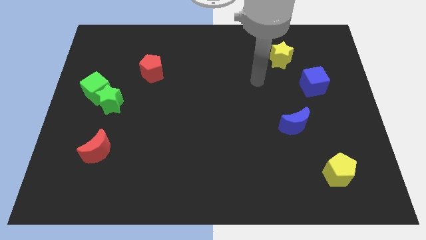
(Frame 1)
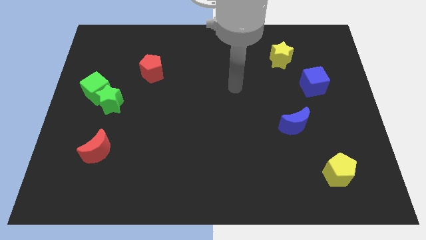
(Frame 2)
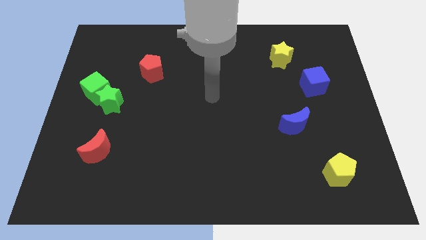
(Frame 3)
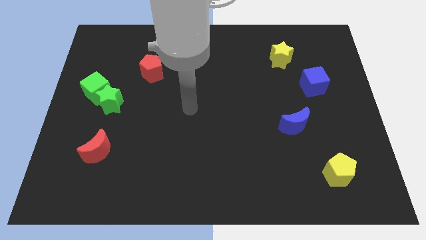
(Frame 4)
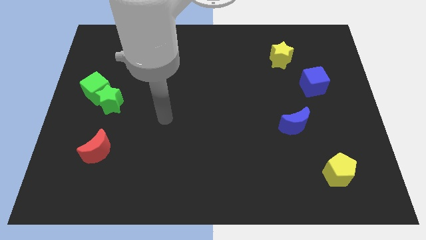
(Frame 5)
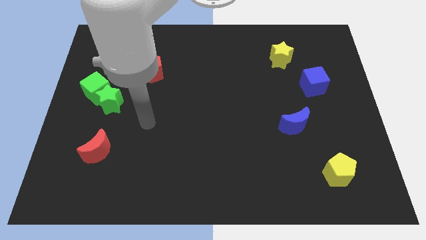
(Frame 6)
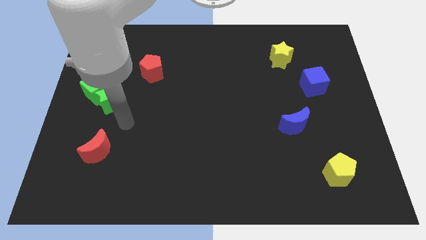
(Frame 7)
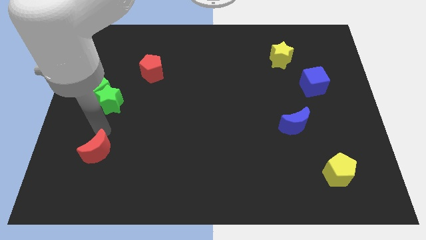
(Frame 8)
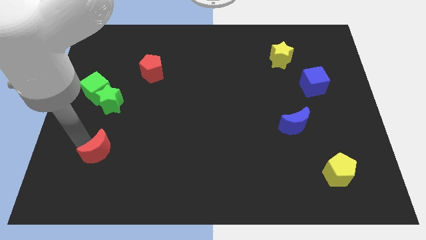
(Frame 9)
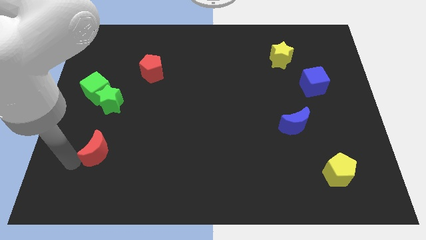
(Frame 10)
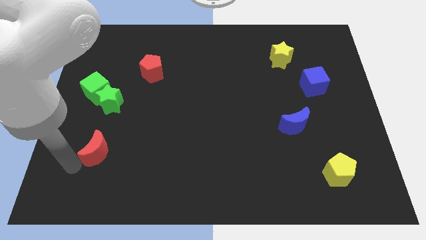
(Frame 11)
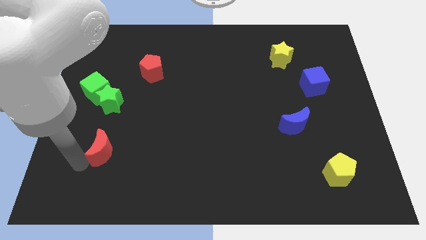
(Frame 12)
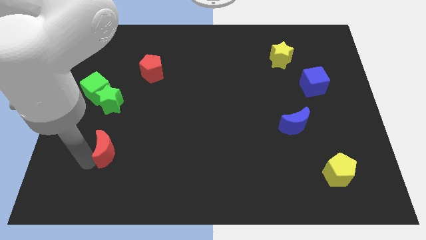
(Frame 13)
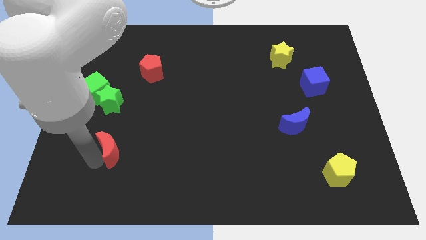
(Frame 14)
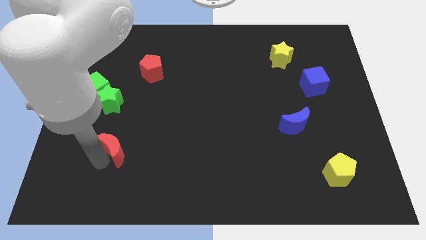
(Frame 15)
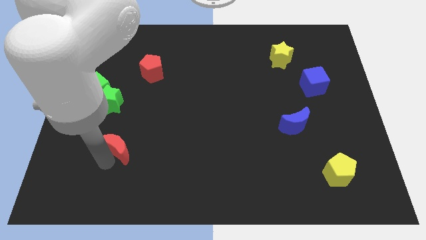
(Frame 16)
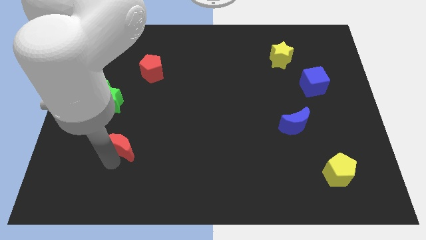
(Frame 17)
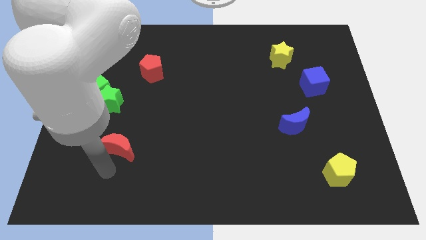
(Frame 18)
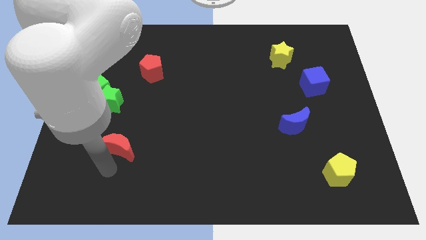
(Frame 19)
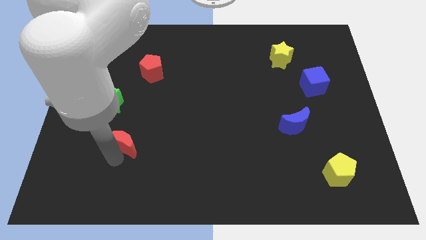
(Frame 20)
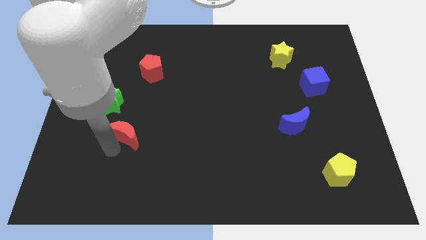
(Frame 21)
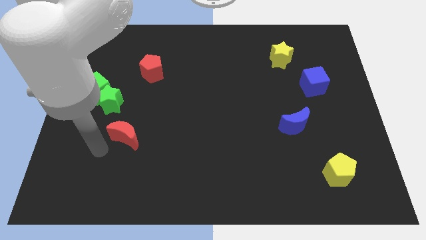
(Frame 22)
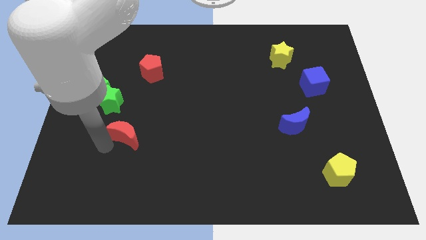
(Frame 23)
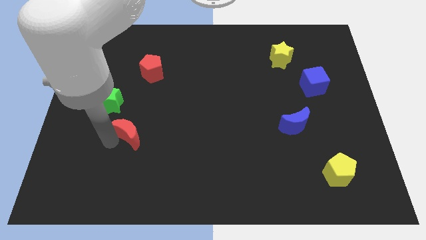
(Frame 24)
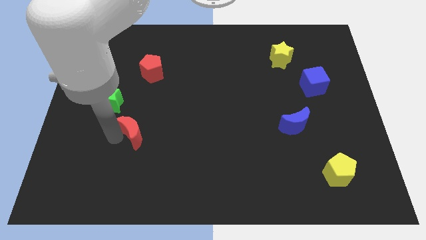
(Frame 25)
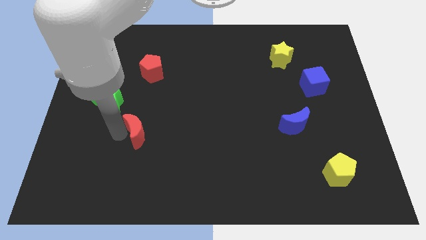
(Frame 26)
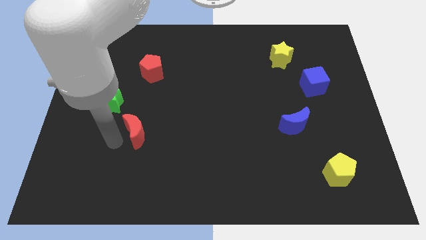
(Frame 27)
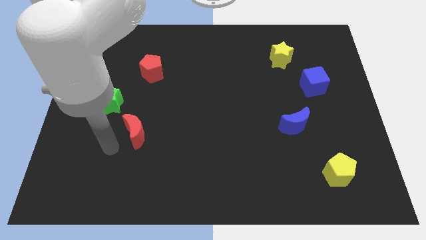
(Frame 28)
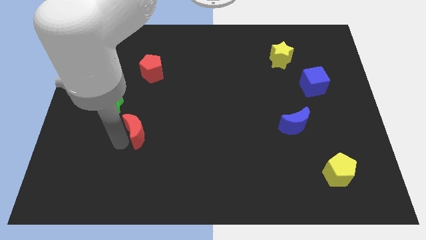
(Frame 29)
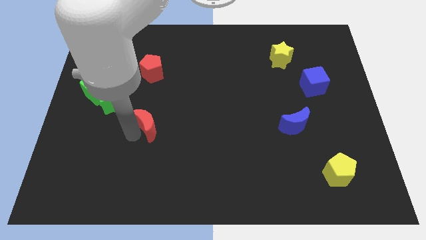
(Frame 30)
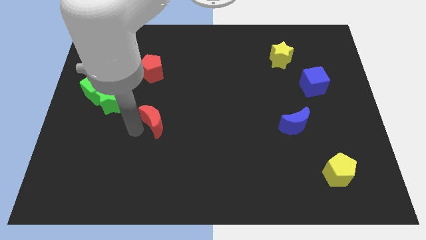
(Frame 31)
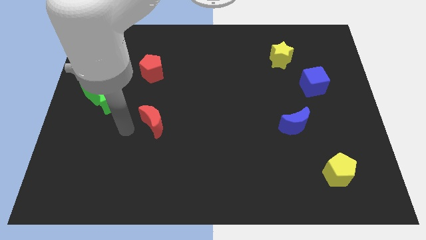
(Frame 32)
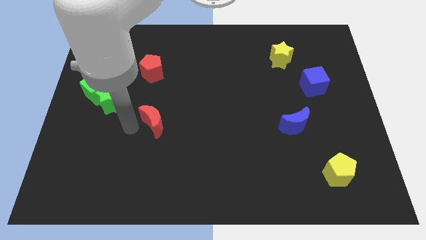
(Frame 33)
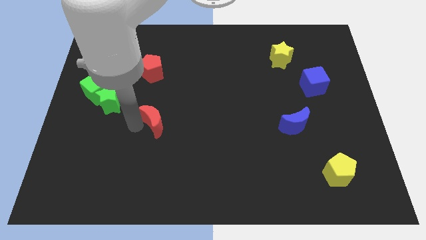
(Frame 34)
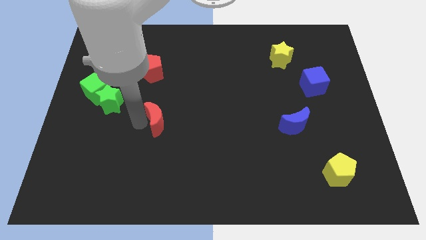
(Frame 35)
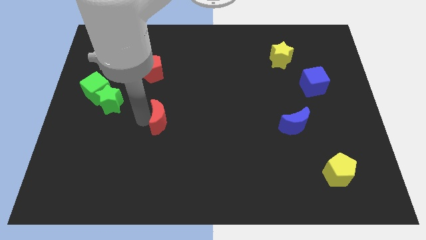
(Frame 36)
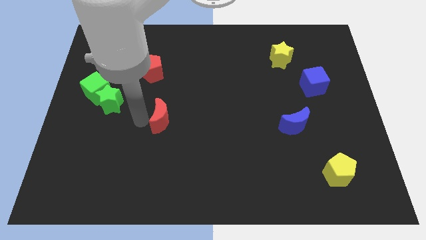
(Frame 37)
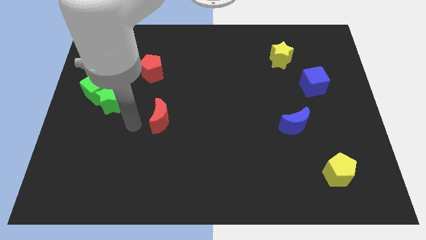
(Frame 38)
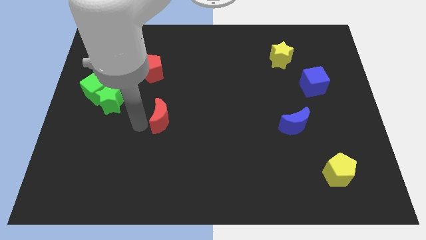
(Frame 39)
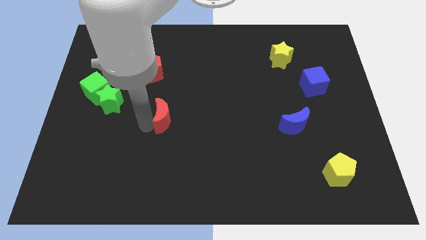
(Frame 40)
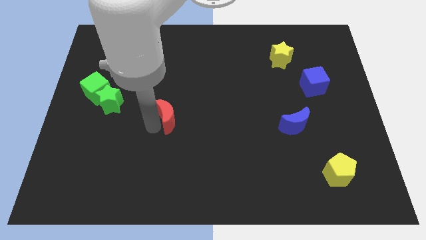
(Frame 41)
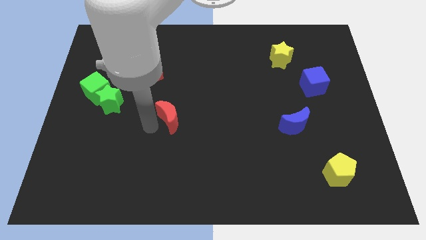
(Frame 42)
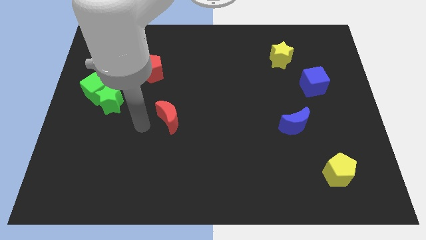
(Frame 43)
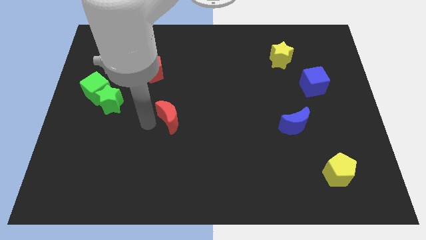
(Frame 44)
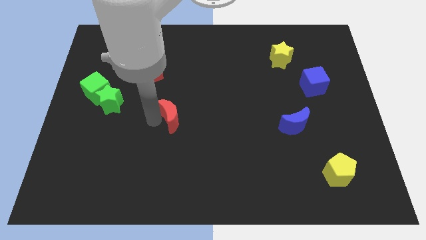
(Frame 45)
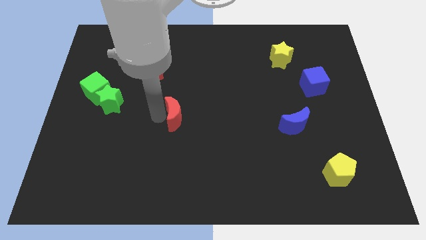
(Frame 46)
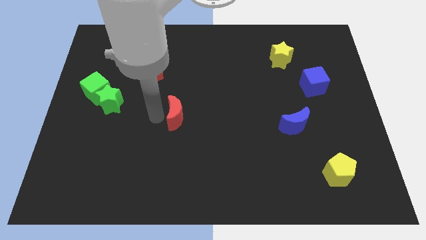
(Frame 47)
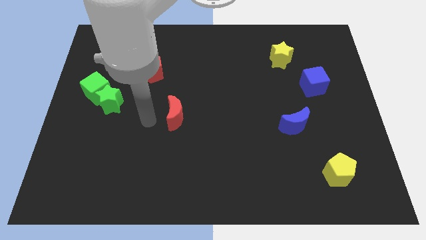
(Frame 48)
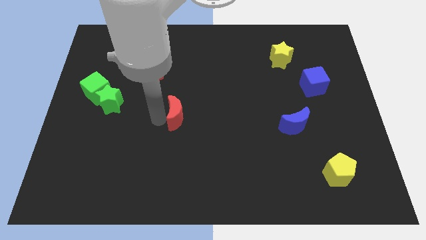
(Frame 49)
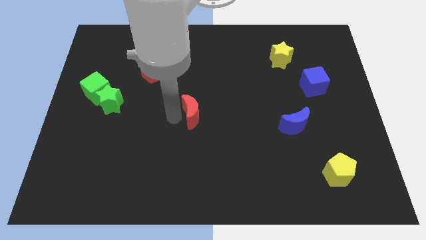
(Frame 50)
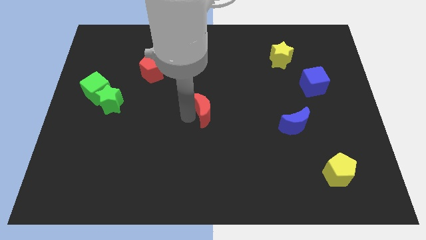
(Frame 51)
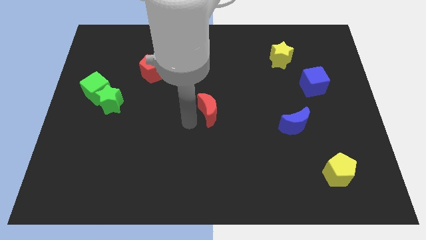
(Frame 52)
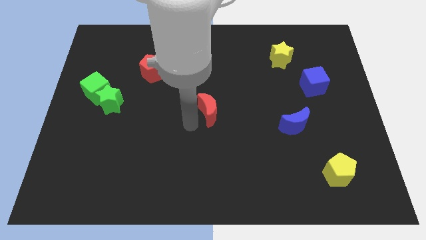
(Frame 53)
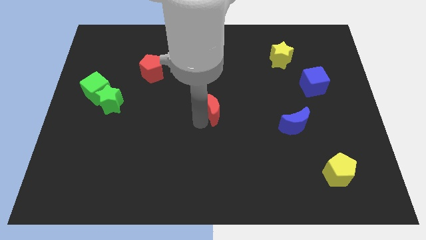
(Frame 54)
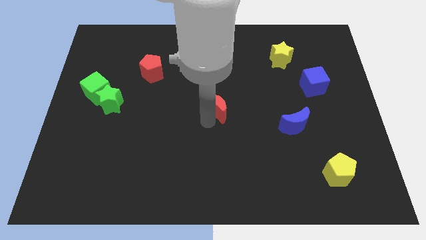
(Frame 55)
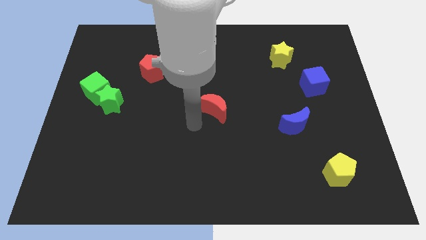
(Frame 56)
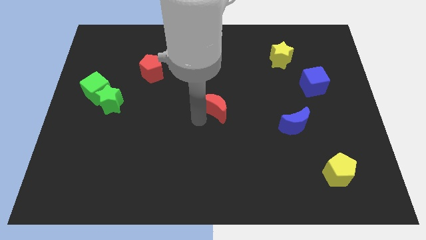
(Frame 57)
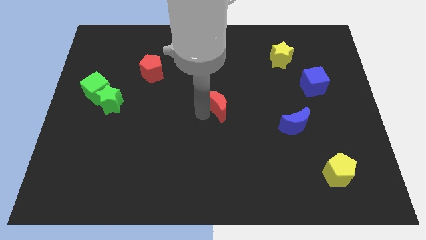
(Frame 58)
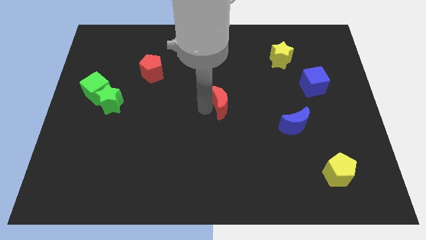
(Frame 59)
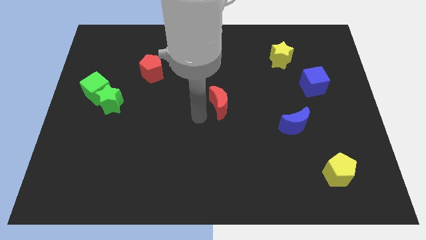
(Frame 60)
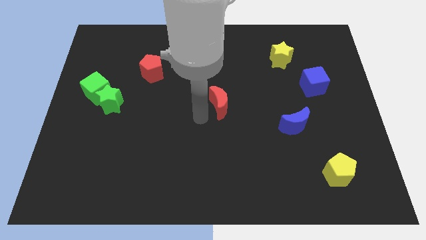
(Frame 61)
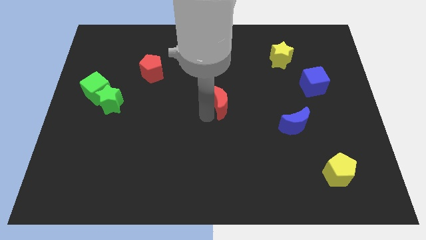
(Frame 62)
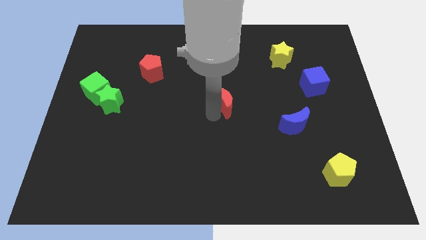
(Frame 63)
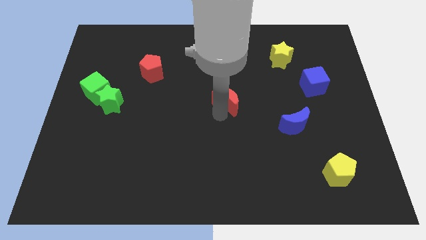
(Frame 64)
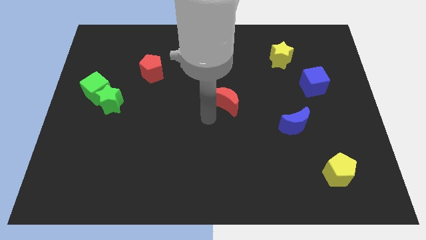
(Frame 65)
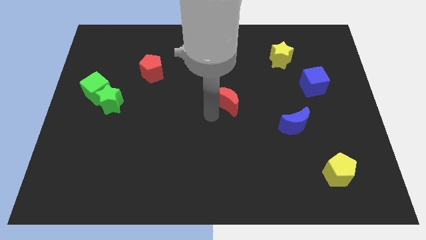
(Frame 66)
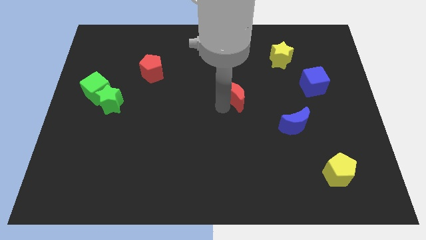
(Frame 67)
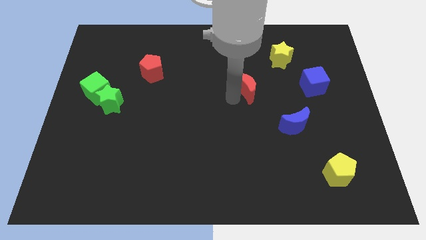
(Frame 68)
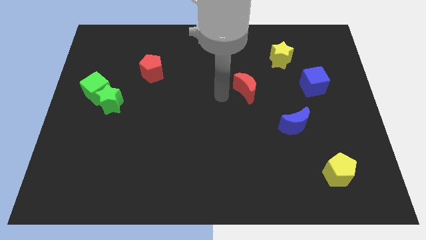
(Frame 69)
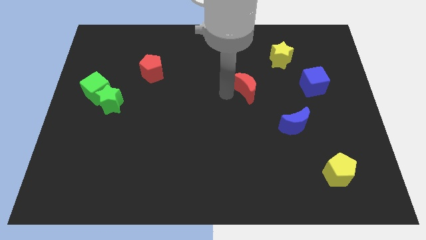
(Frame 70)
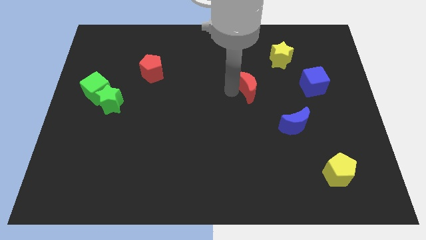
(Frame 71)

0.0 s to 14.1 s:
put the red moon to the left of the blue cube

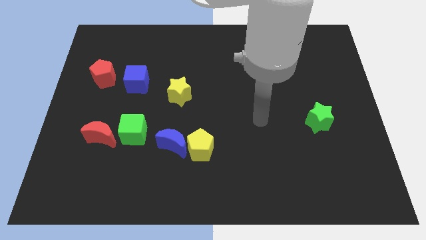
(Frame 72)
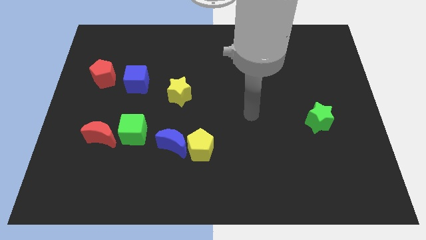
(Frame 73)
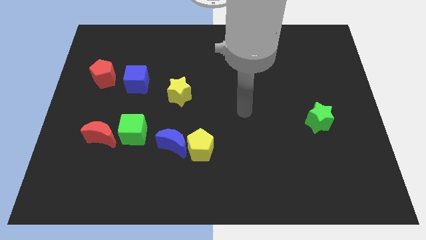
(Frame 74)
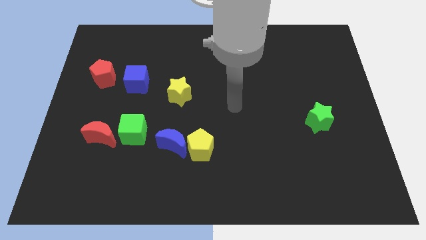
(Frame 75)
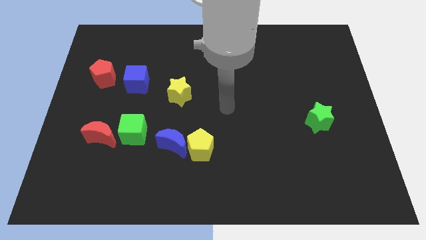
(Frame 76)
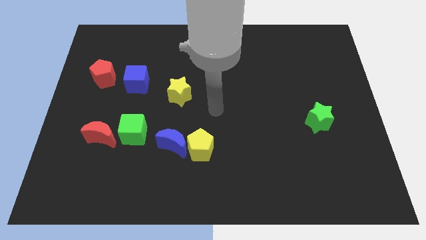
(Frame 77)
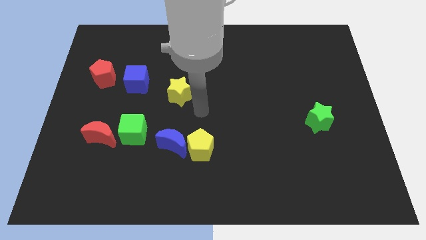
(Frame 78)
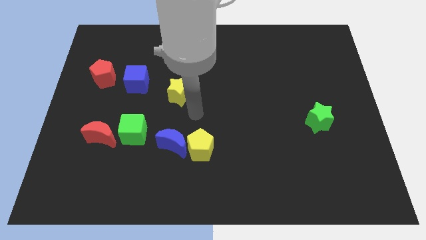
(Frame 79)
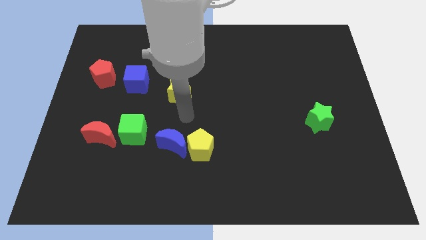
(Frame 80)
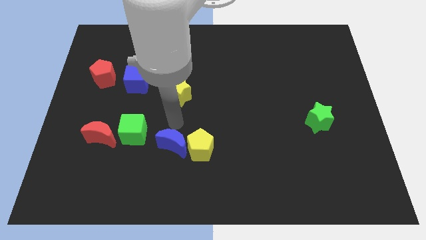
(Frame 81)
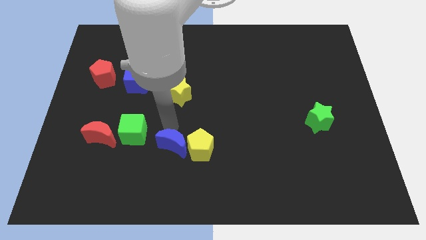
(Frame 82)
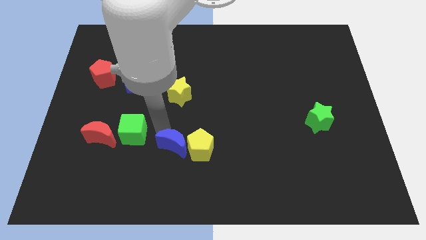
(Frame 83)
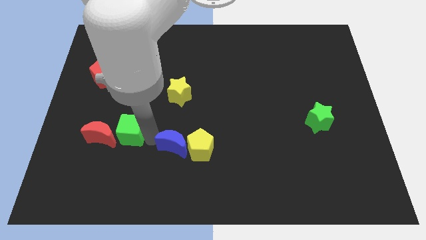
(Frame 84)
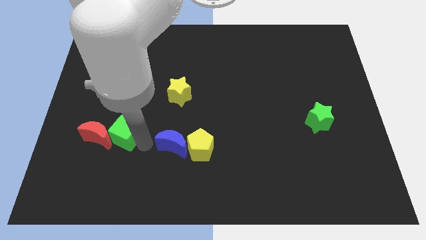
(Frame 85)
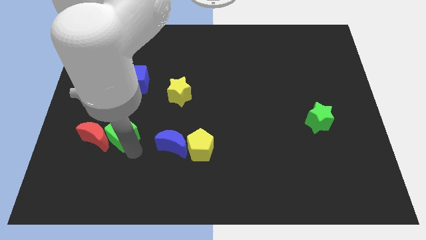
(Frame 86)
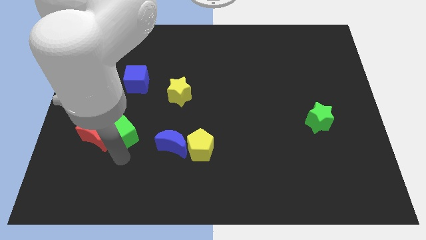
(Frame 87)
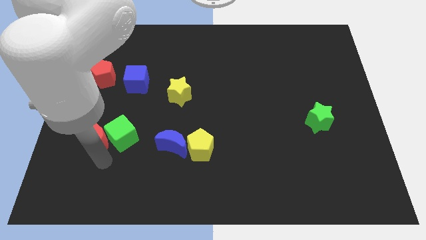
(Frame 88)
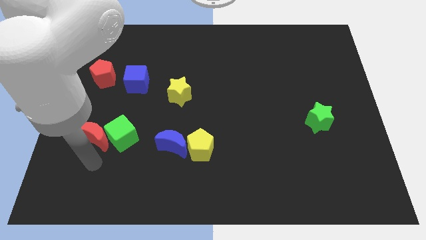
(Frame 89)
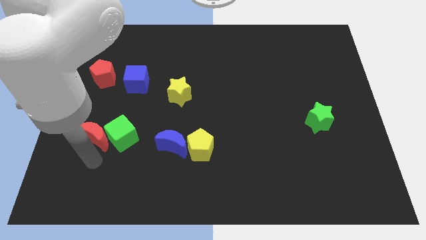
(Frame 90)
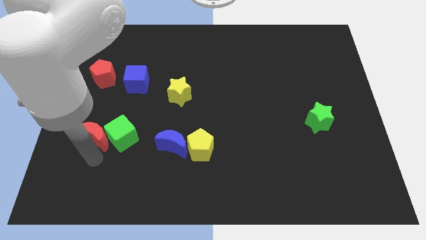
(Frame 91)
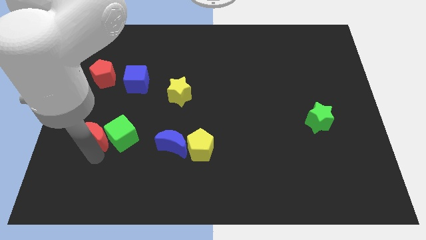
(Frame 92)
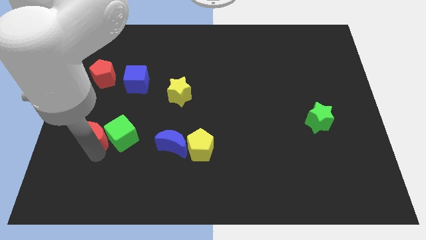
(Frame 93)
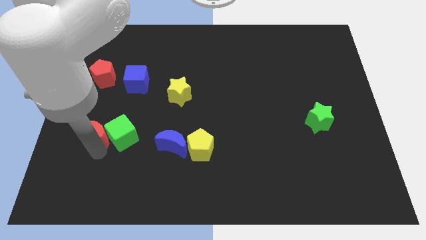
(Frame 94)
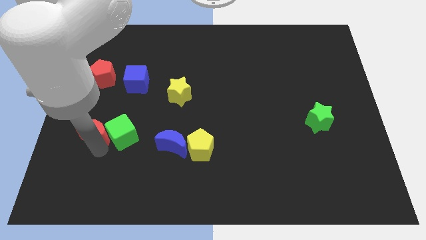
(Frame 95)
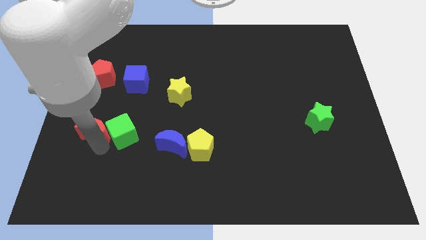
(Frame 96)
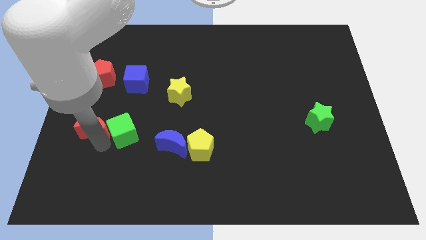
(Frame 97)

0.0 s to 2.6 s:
push the red moon below the red pentagon
